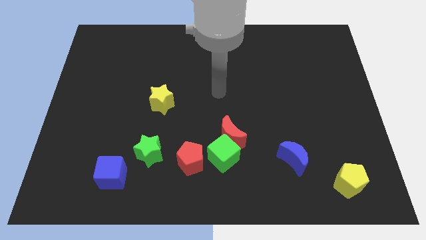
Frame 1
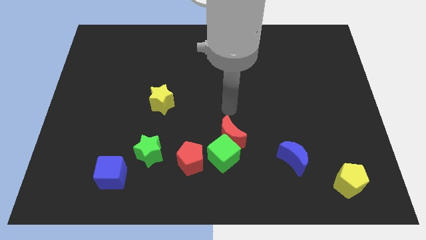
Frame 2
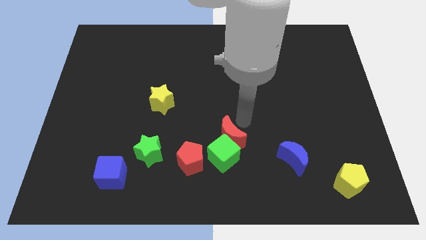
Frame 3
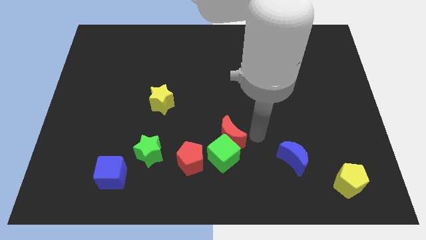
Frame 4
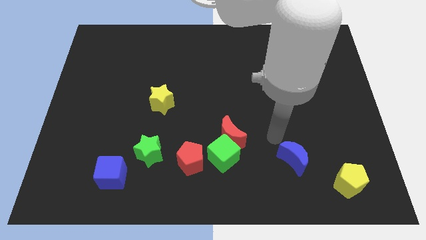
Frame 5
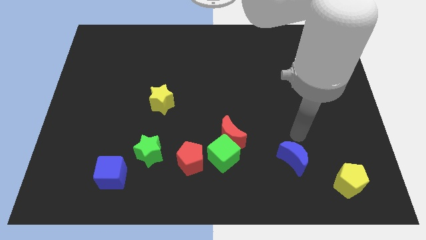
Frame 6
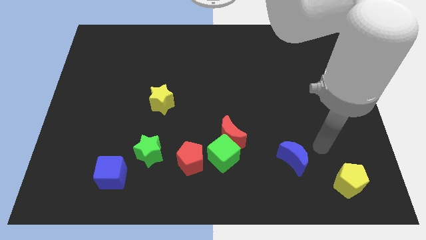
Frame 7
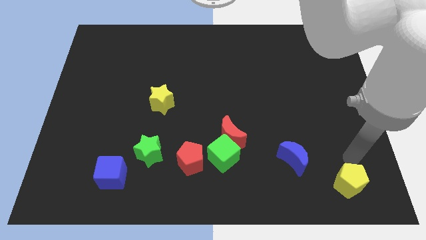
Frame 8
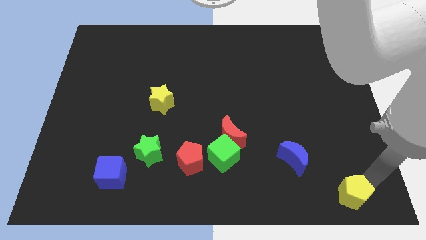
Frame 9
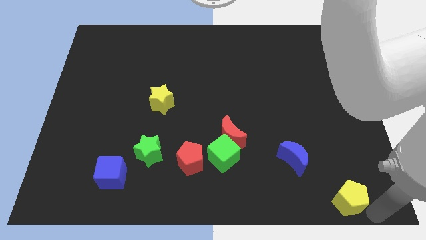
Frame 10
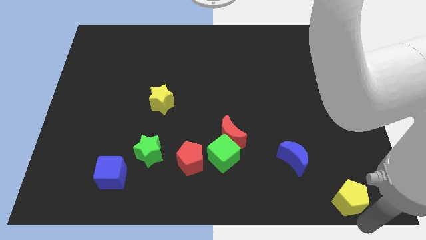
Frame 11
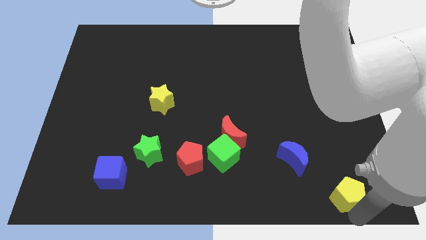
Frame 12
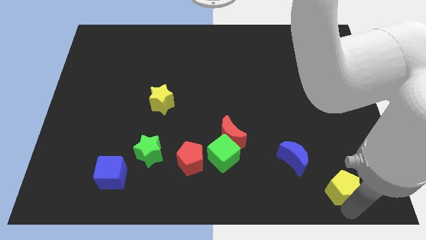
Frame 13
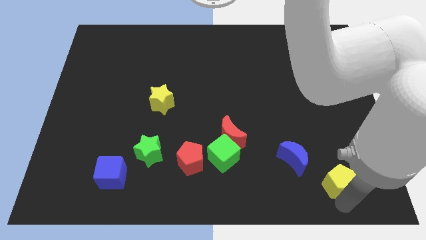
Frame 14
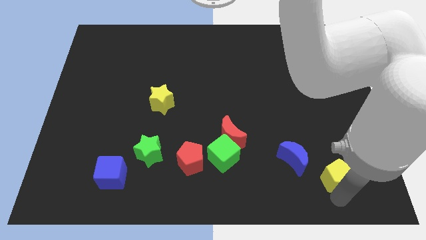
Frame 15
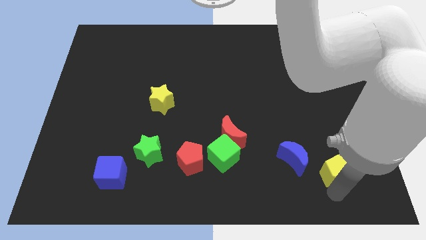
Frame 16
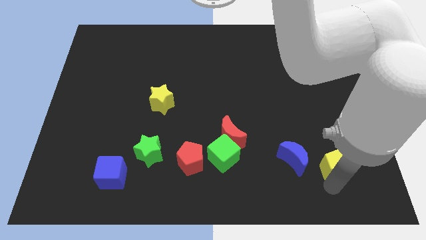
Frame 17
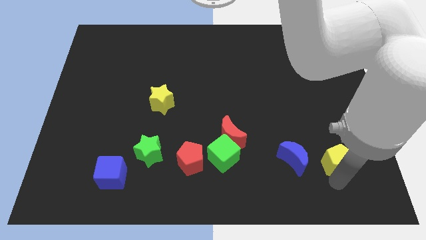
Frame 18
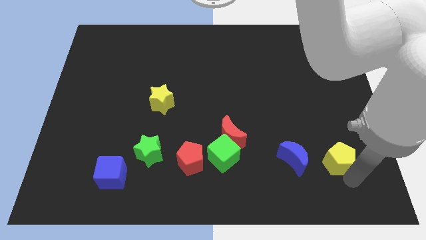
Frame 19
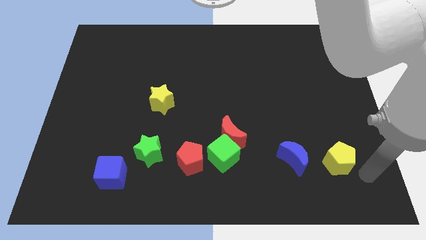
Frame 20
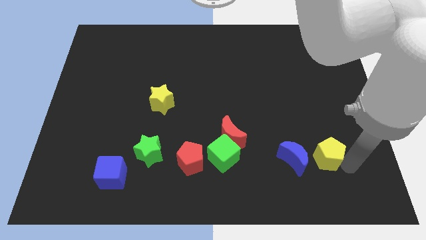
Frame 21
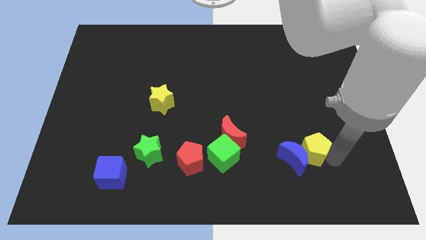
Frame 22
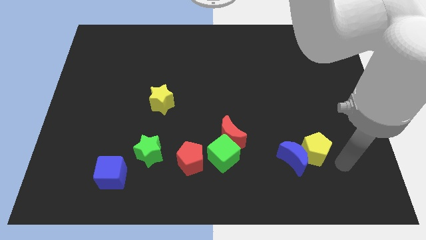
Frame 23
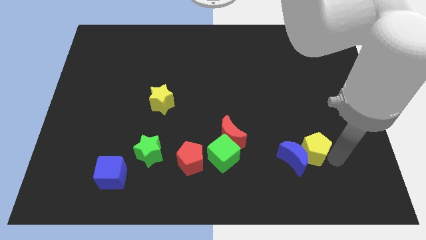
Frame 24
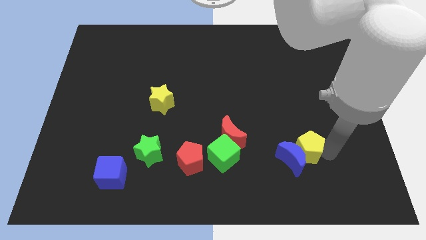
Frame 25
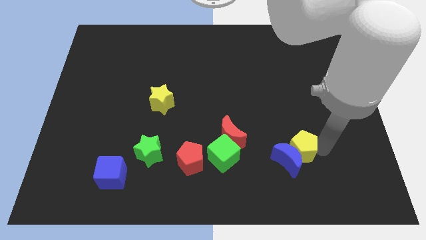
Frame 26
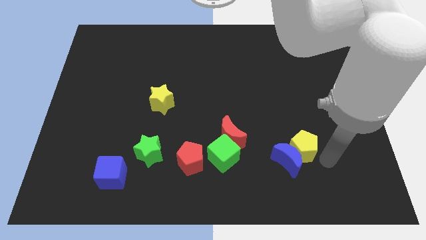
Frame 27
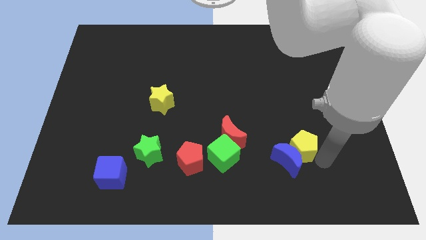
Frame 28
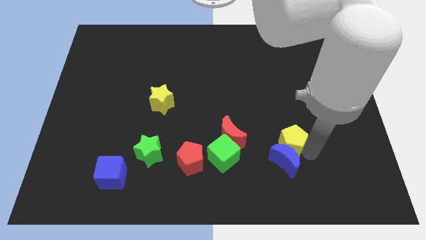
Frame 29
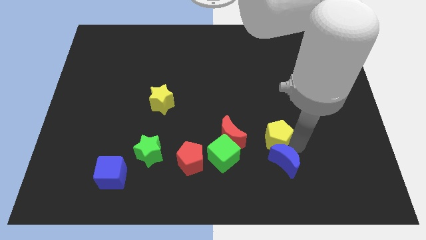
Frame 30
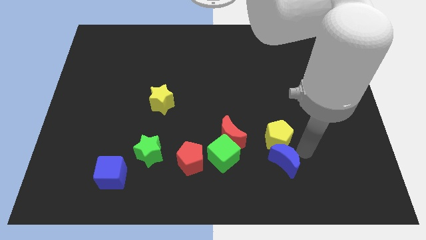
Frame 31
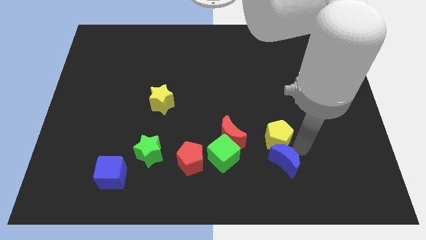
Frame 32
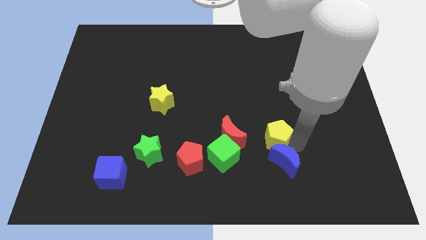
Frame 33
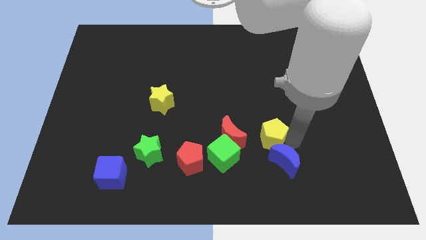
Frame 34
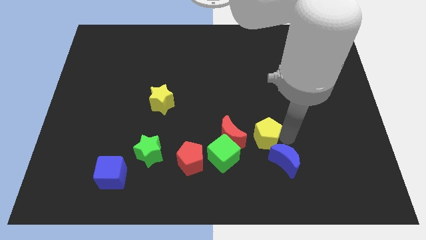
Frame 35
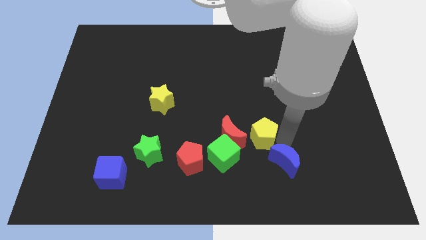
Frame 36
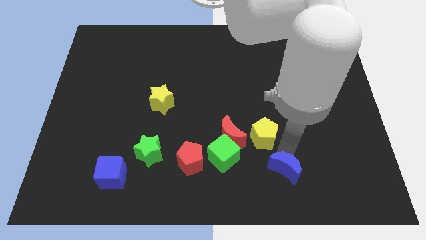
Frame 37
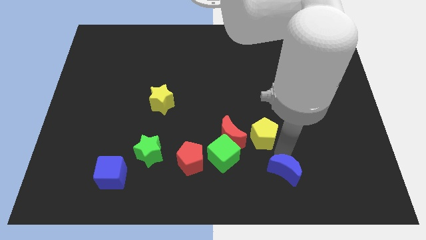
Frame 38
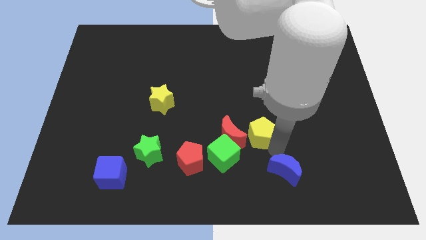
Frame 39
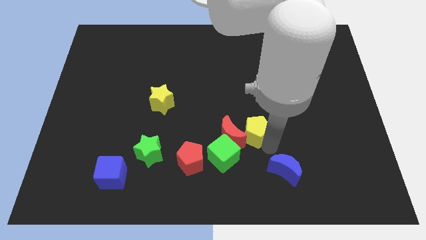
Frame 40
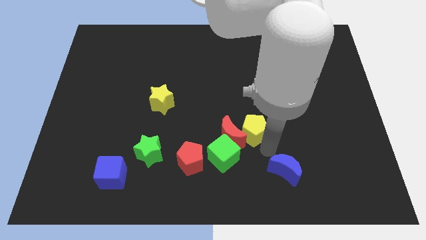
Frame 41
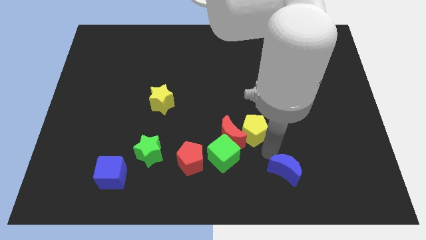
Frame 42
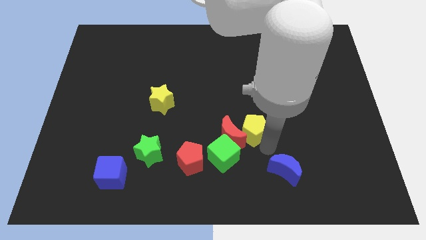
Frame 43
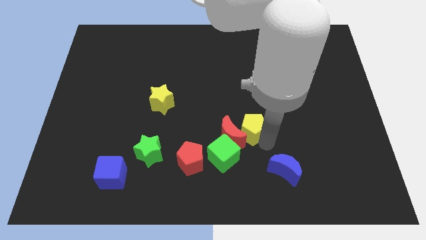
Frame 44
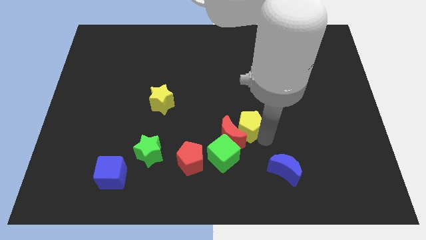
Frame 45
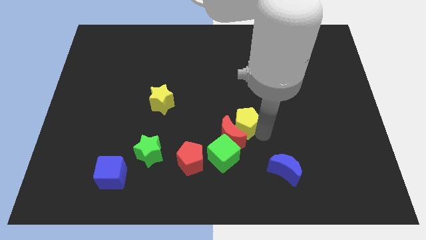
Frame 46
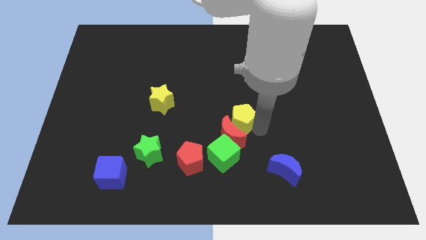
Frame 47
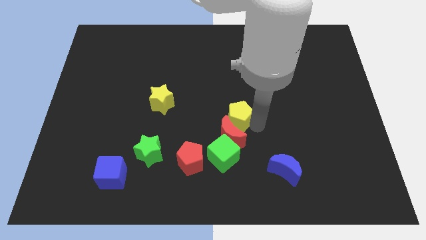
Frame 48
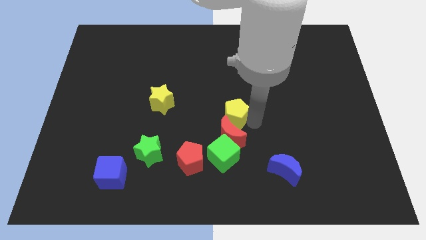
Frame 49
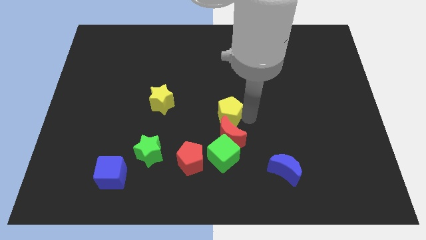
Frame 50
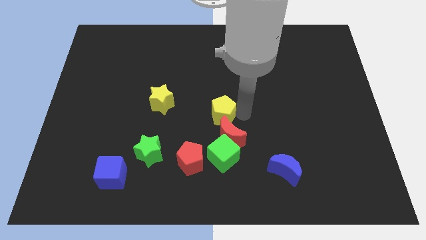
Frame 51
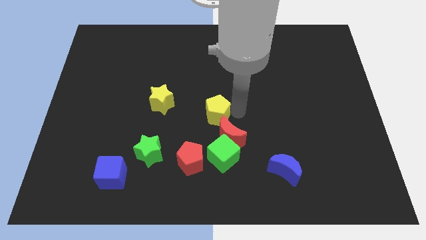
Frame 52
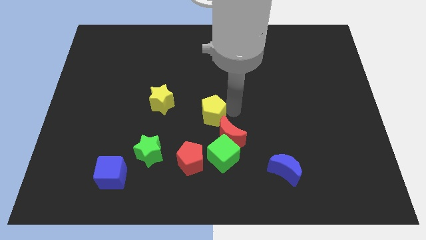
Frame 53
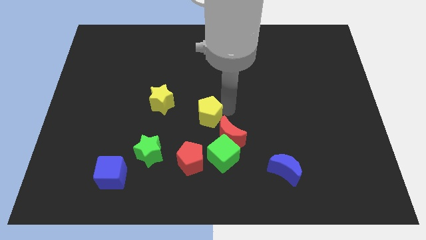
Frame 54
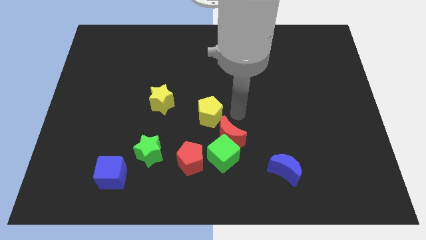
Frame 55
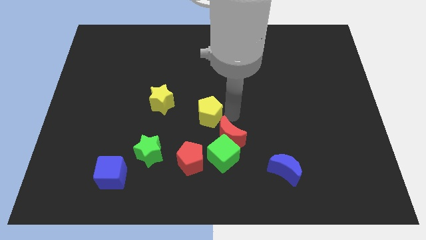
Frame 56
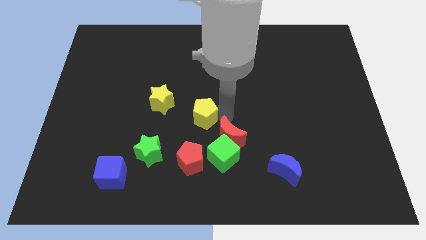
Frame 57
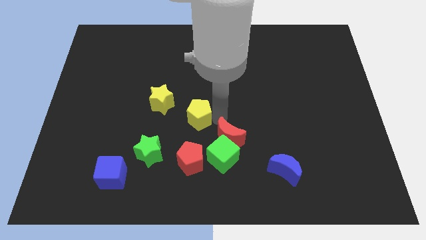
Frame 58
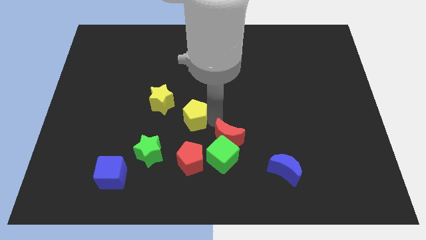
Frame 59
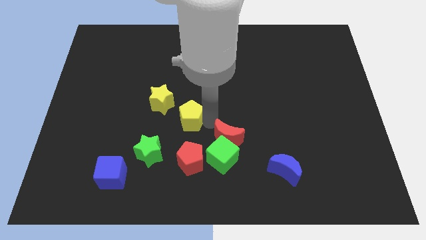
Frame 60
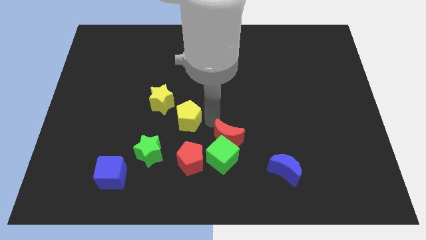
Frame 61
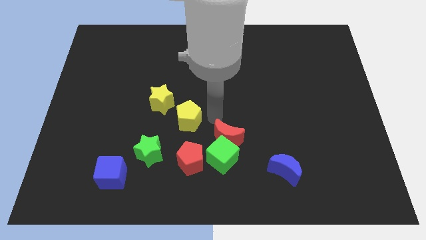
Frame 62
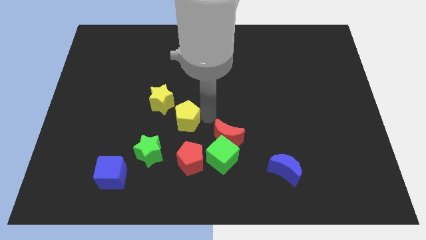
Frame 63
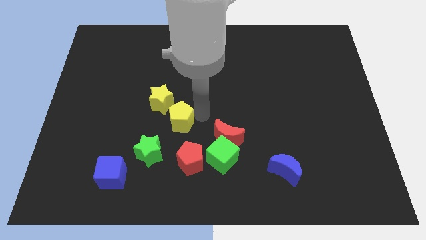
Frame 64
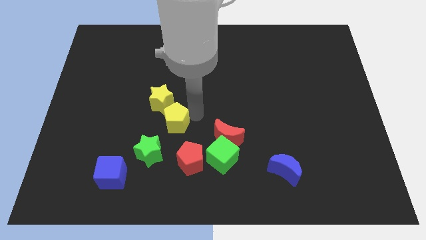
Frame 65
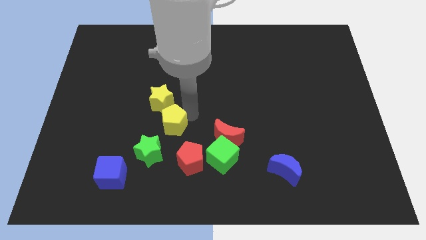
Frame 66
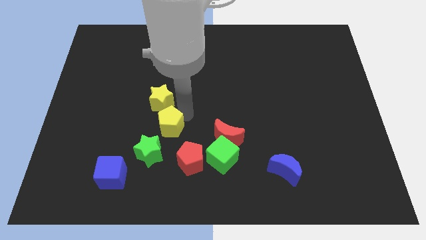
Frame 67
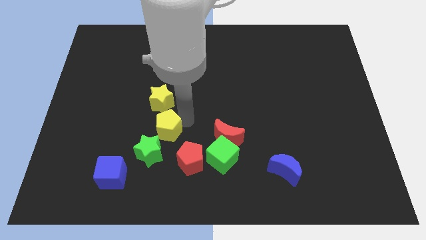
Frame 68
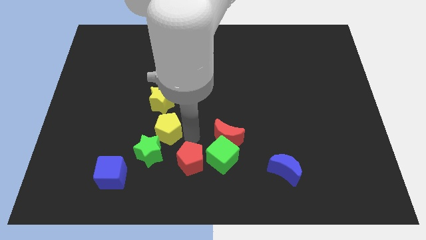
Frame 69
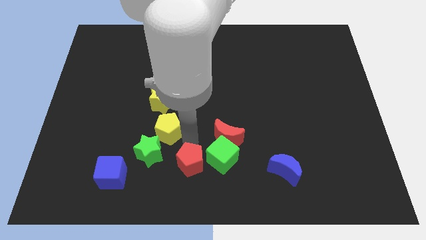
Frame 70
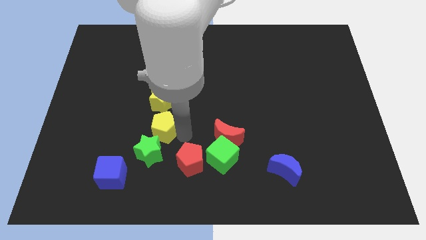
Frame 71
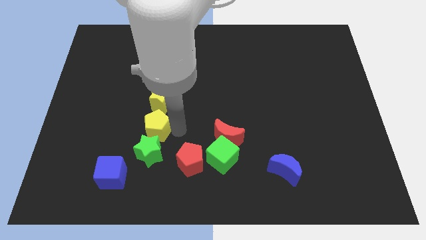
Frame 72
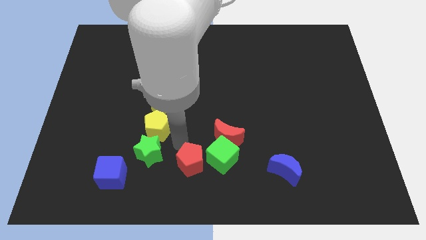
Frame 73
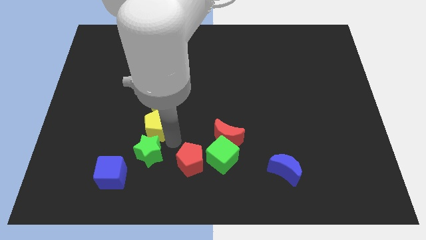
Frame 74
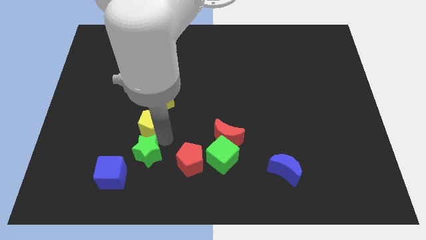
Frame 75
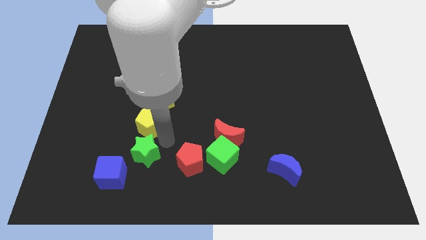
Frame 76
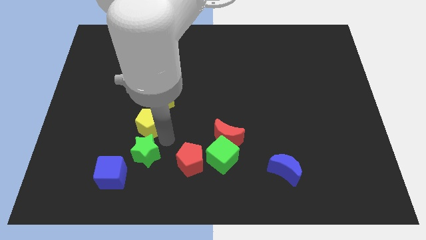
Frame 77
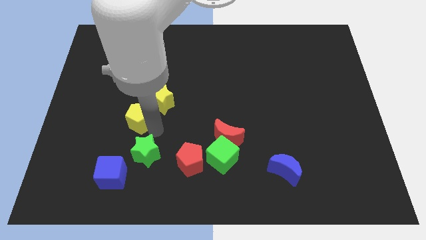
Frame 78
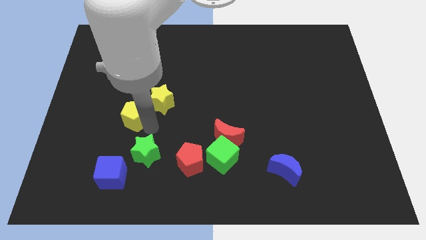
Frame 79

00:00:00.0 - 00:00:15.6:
move the yellow pentagon left of the yellow star
